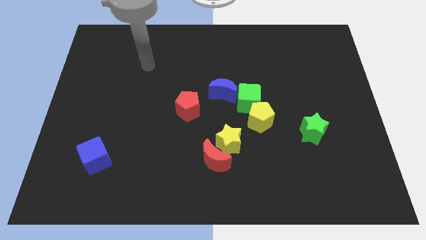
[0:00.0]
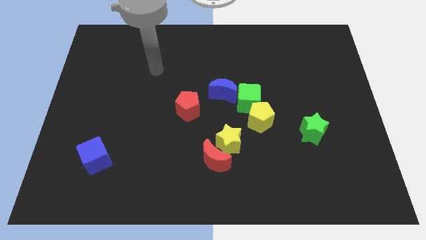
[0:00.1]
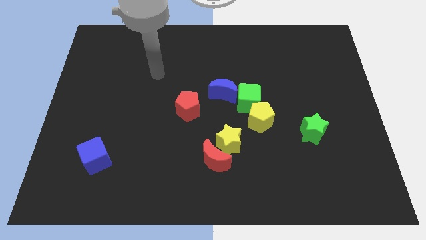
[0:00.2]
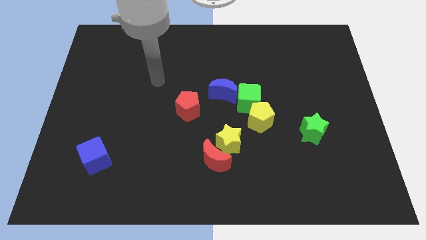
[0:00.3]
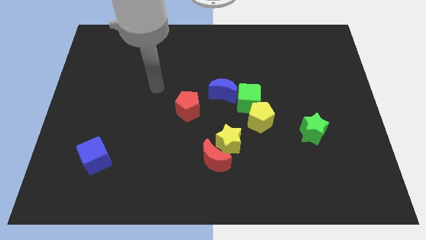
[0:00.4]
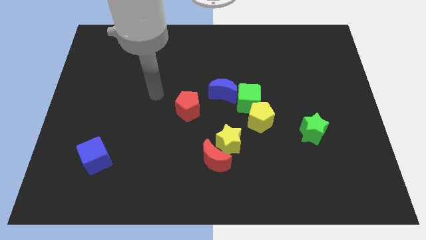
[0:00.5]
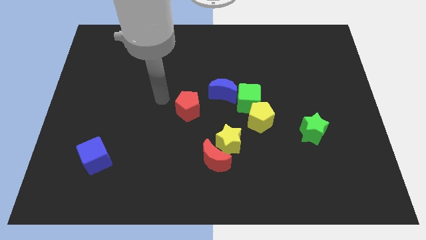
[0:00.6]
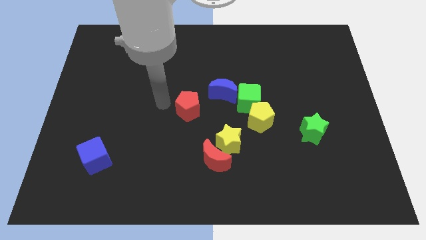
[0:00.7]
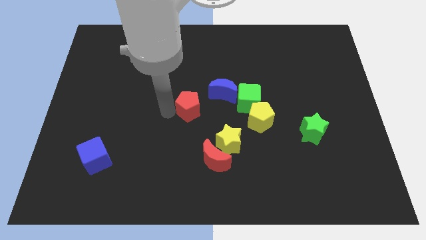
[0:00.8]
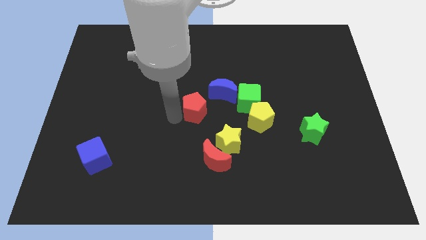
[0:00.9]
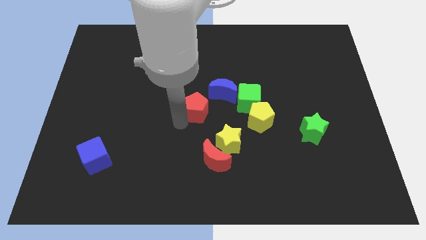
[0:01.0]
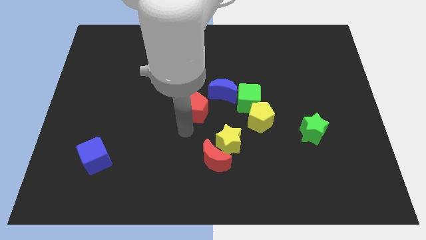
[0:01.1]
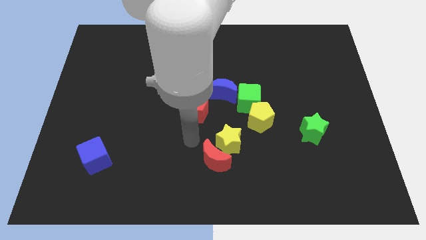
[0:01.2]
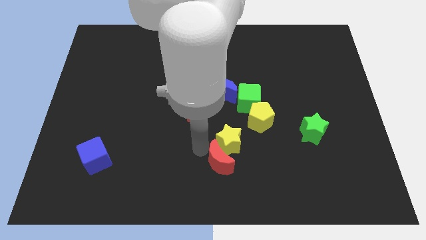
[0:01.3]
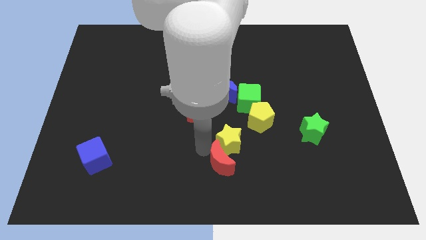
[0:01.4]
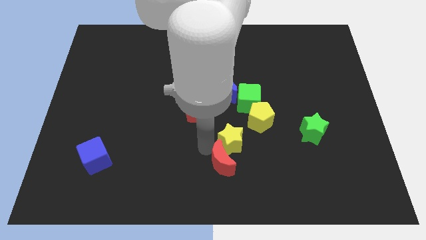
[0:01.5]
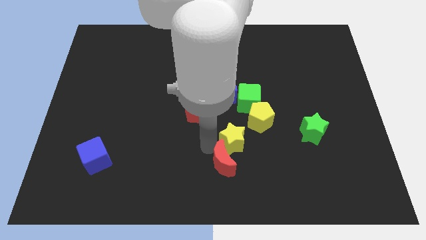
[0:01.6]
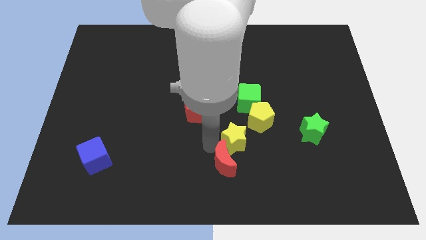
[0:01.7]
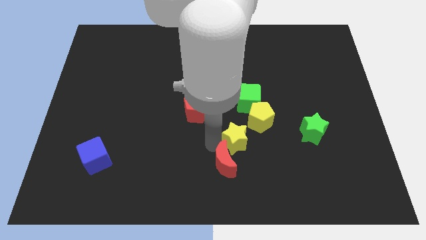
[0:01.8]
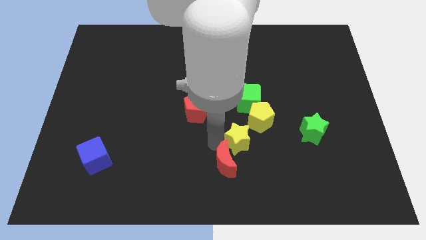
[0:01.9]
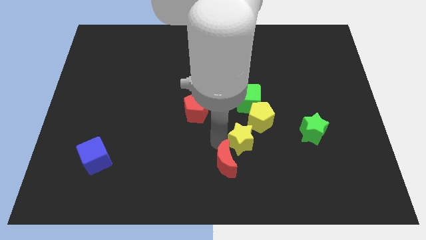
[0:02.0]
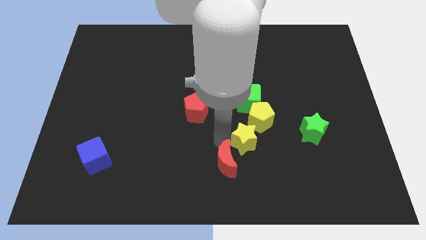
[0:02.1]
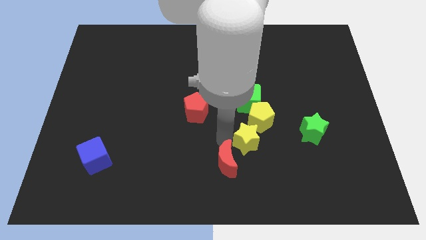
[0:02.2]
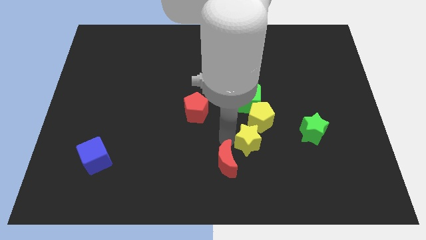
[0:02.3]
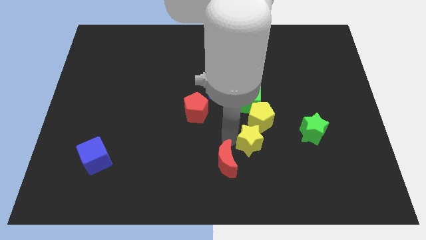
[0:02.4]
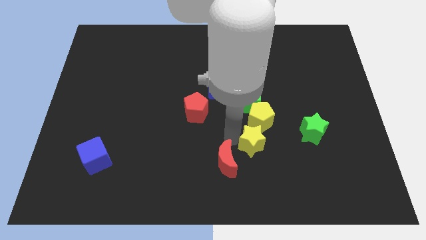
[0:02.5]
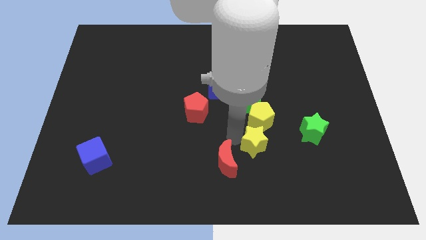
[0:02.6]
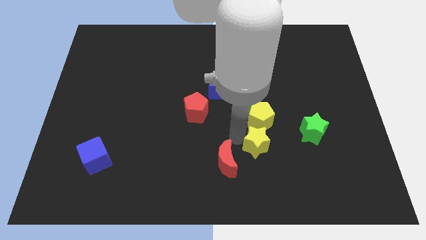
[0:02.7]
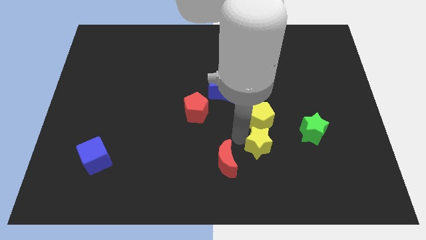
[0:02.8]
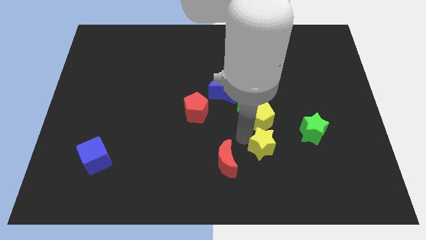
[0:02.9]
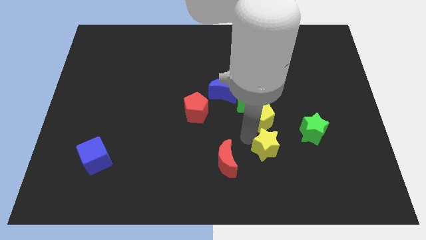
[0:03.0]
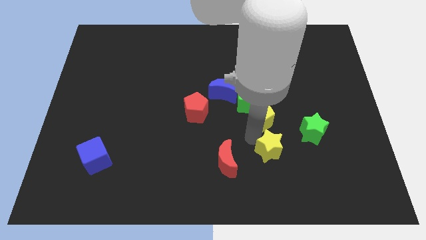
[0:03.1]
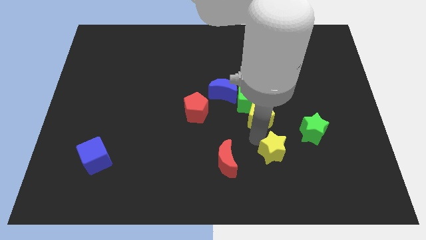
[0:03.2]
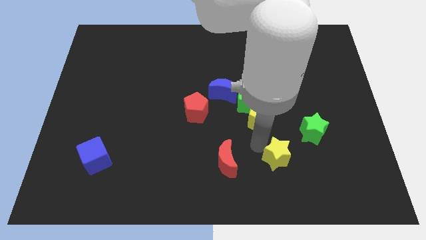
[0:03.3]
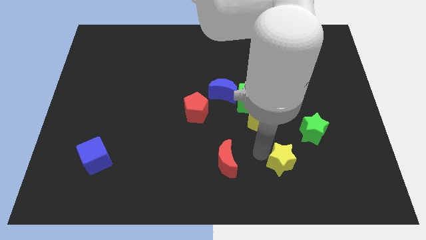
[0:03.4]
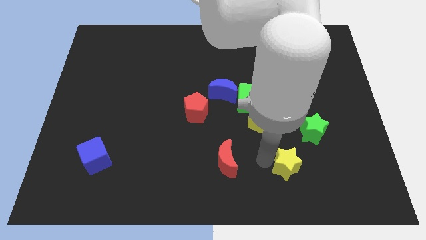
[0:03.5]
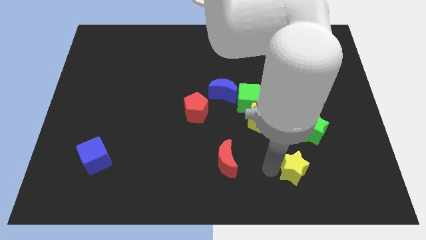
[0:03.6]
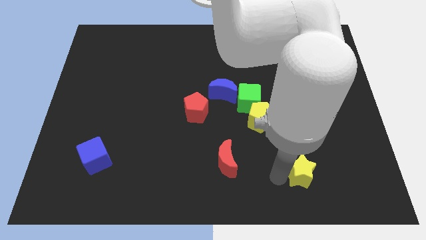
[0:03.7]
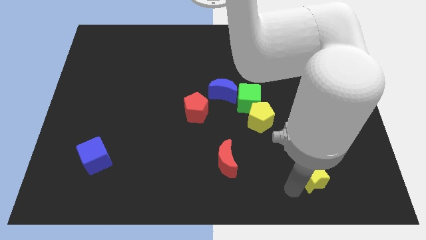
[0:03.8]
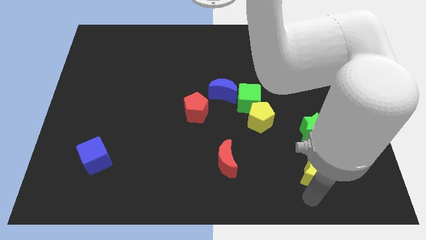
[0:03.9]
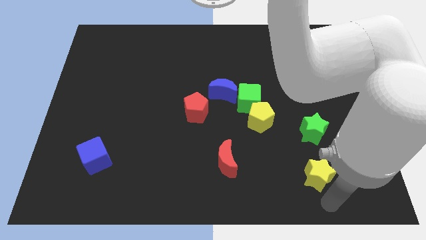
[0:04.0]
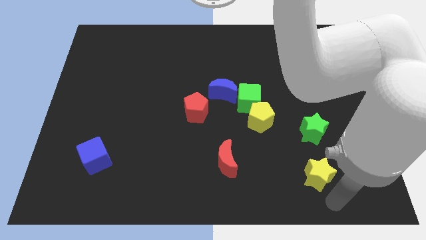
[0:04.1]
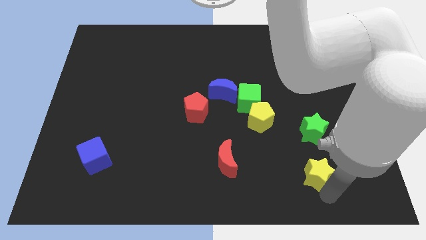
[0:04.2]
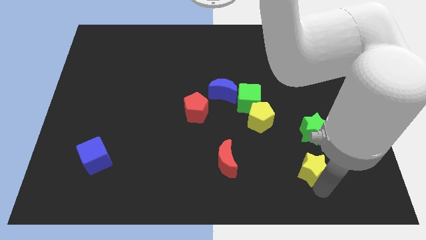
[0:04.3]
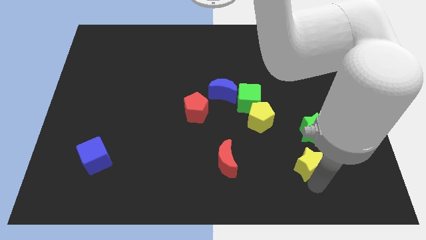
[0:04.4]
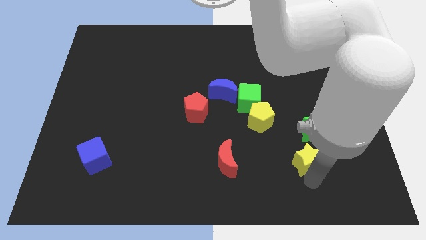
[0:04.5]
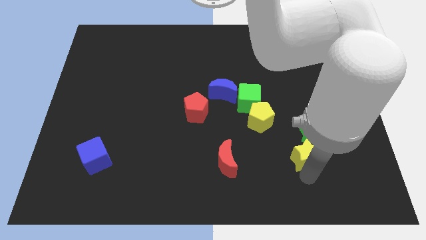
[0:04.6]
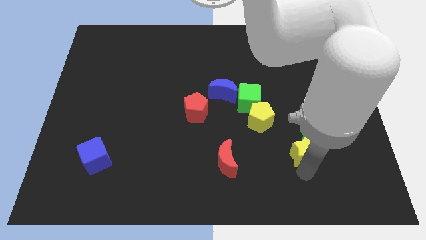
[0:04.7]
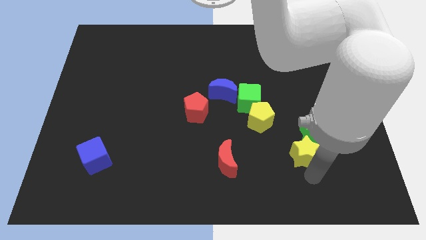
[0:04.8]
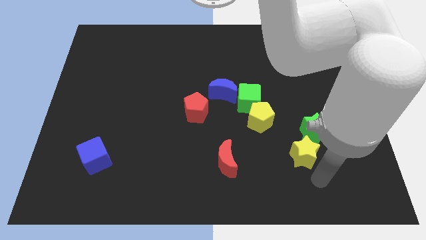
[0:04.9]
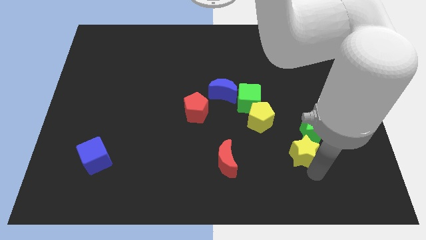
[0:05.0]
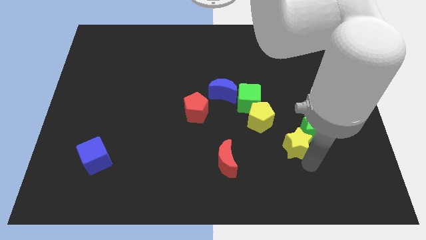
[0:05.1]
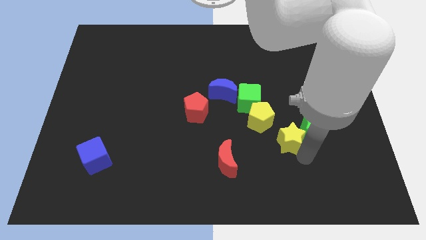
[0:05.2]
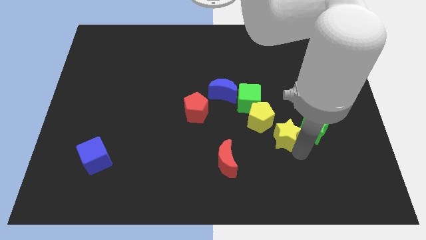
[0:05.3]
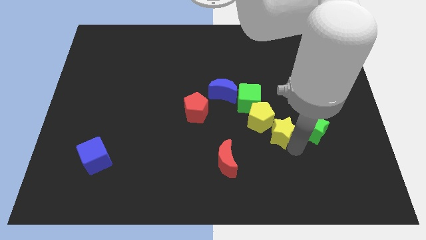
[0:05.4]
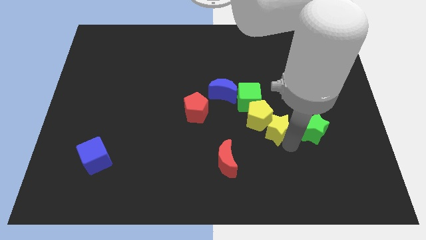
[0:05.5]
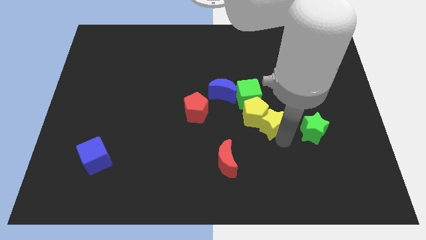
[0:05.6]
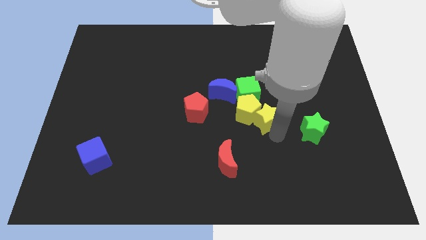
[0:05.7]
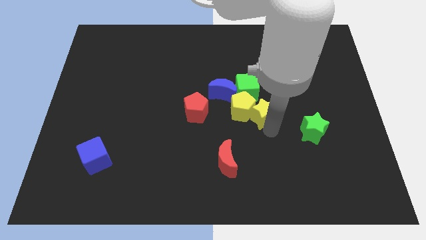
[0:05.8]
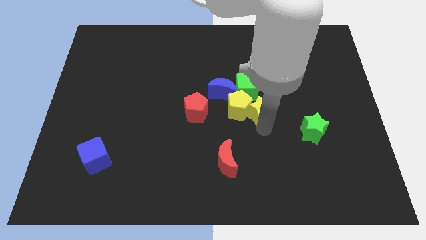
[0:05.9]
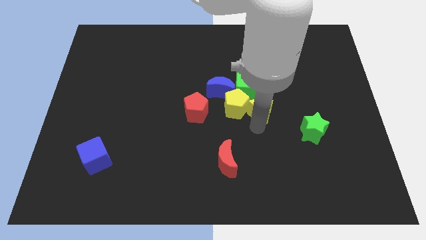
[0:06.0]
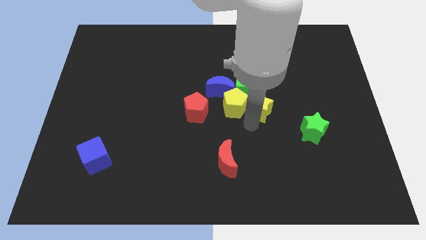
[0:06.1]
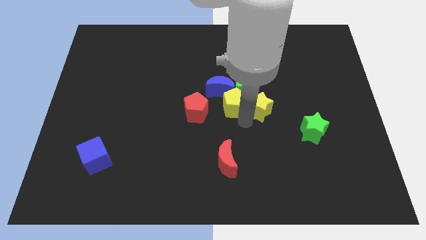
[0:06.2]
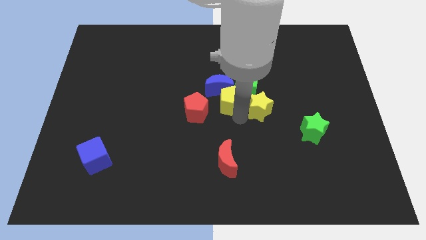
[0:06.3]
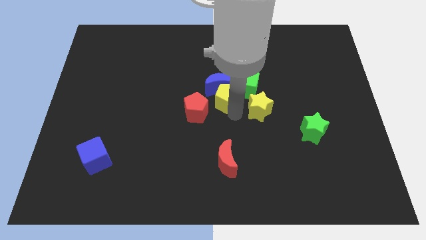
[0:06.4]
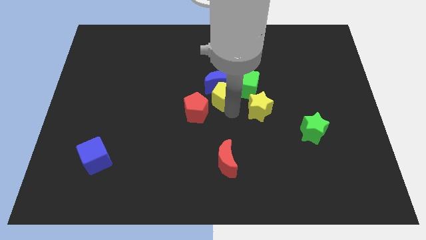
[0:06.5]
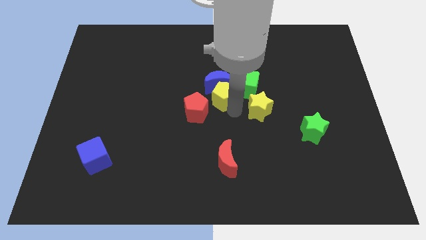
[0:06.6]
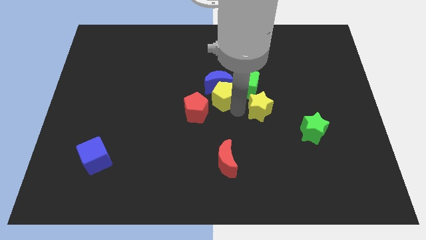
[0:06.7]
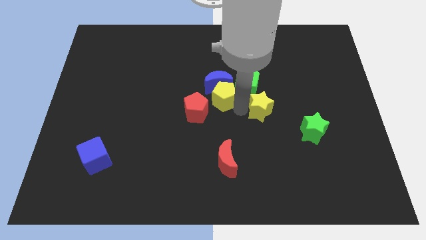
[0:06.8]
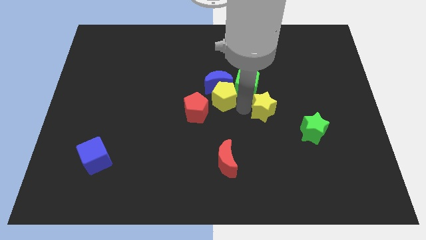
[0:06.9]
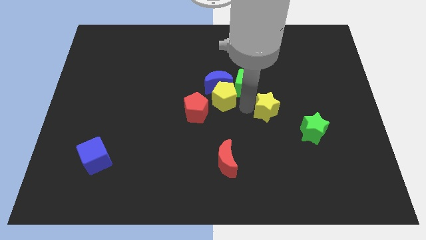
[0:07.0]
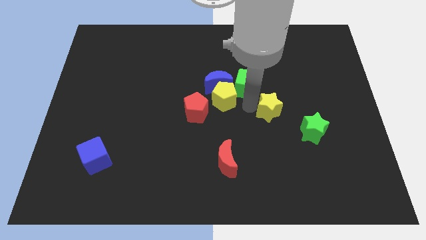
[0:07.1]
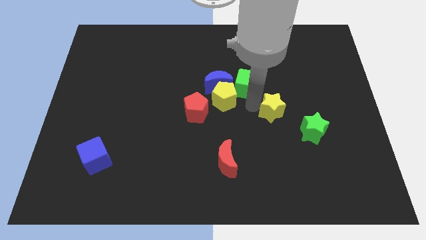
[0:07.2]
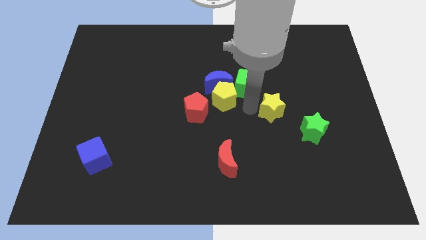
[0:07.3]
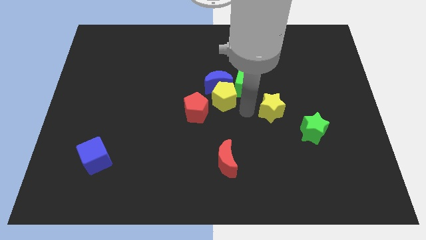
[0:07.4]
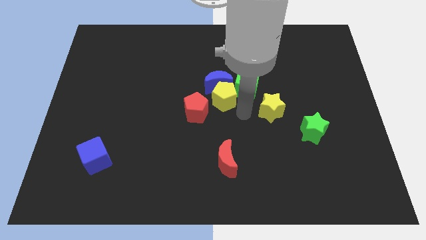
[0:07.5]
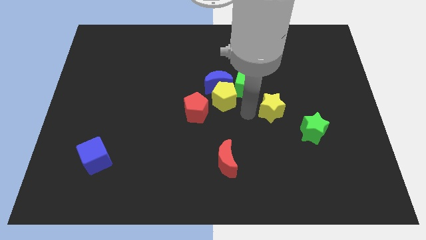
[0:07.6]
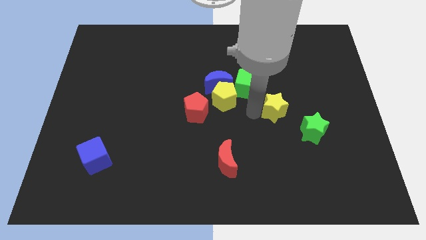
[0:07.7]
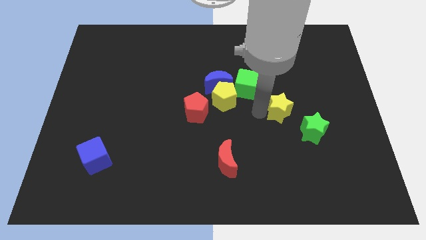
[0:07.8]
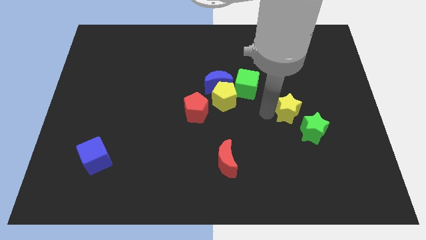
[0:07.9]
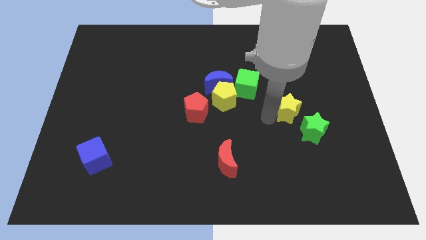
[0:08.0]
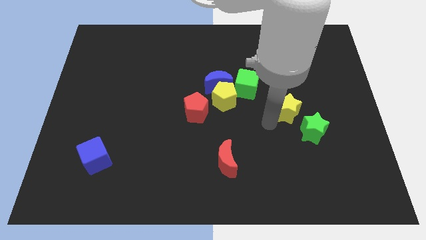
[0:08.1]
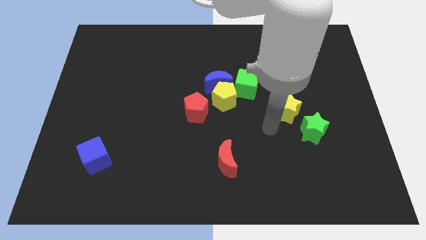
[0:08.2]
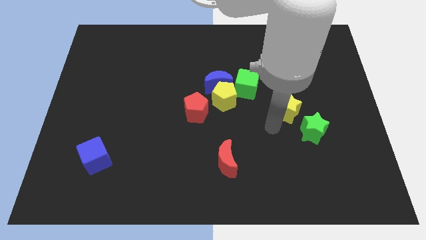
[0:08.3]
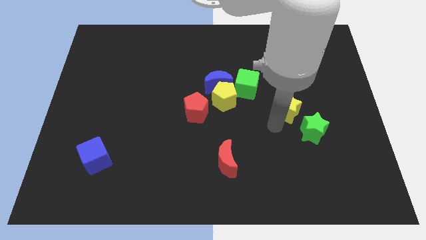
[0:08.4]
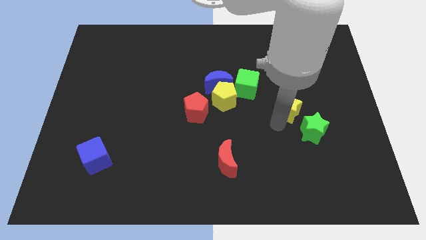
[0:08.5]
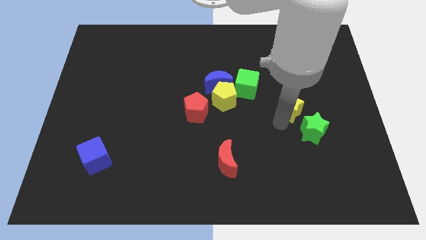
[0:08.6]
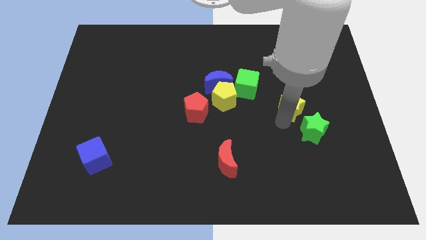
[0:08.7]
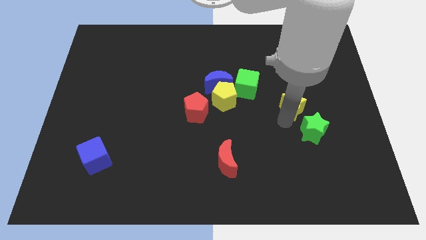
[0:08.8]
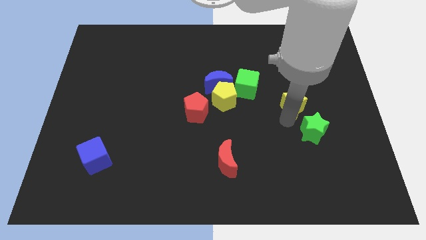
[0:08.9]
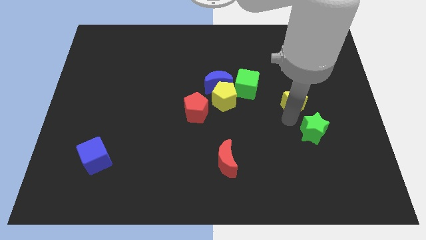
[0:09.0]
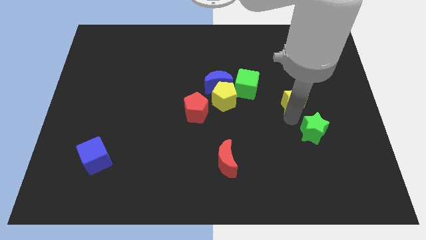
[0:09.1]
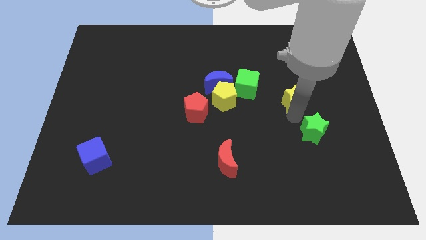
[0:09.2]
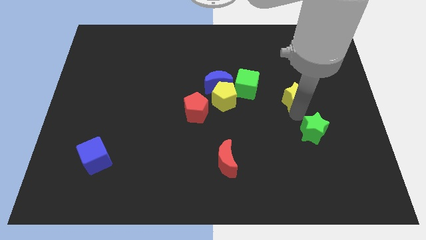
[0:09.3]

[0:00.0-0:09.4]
push the yellow star up and right diagonally
